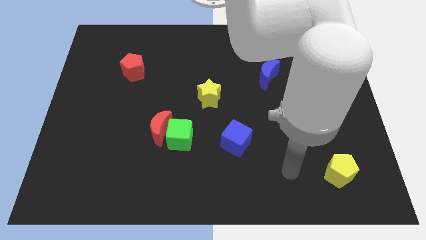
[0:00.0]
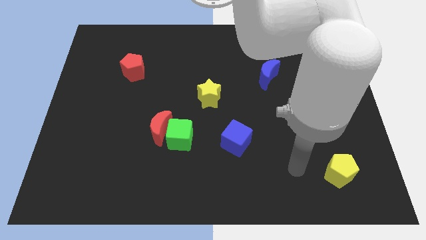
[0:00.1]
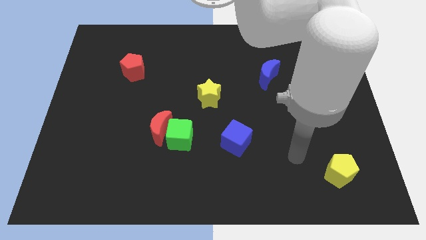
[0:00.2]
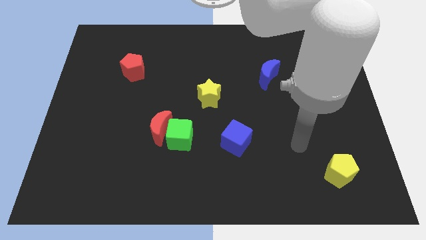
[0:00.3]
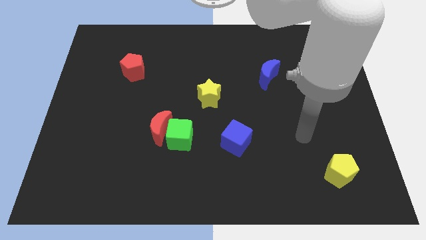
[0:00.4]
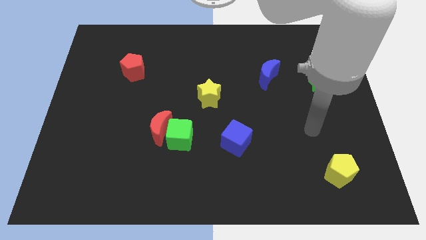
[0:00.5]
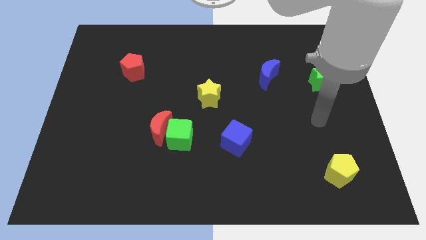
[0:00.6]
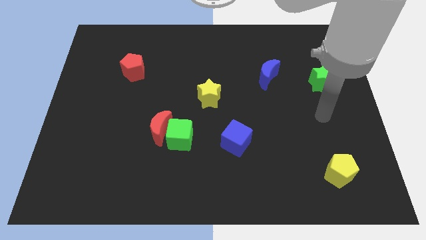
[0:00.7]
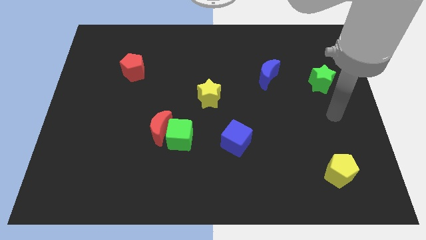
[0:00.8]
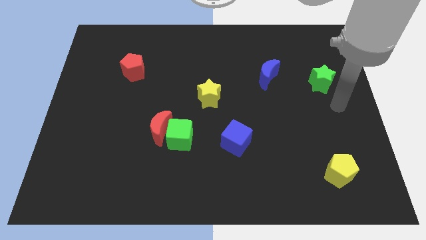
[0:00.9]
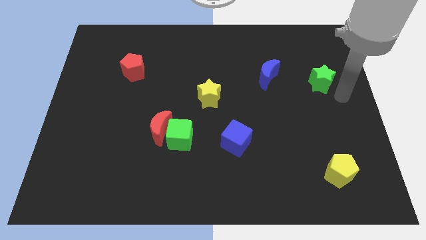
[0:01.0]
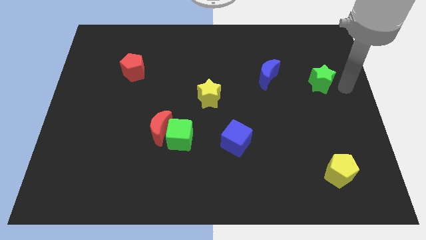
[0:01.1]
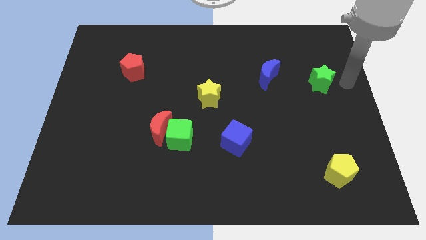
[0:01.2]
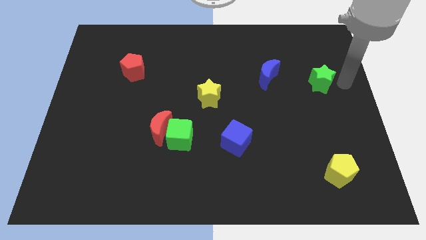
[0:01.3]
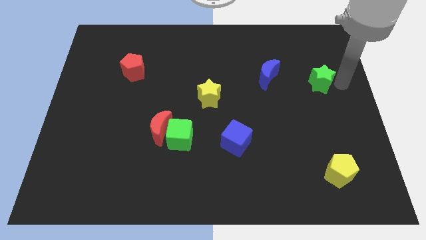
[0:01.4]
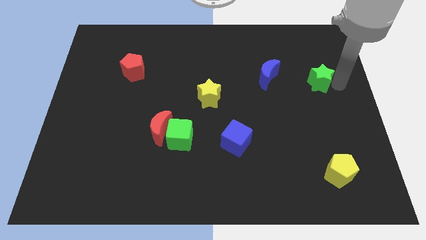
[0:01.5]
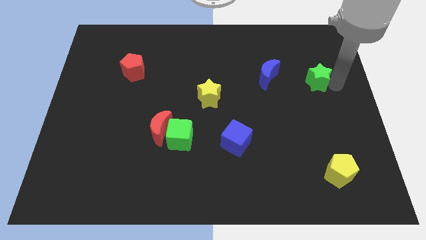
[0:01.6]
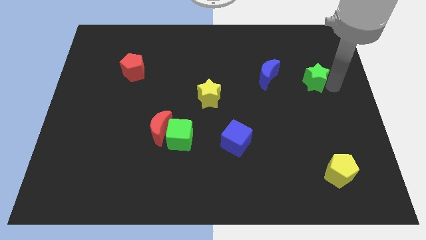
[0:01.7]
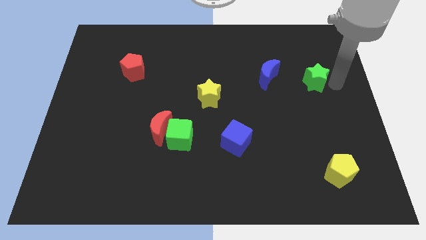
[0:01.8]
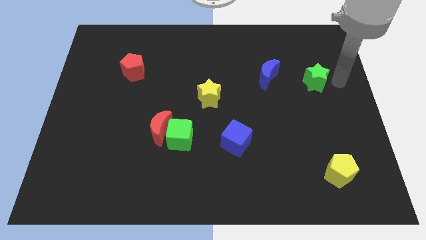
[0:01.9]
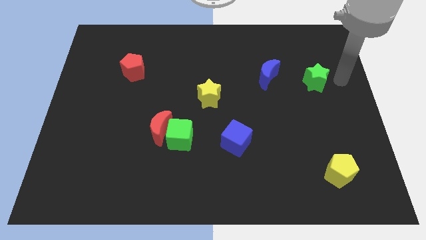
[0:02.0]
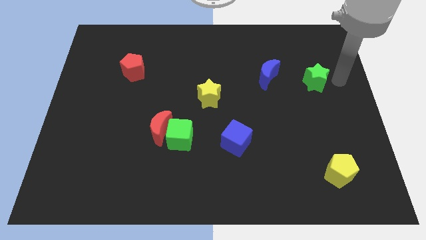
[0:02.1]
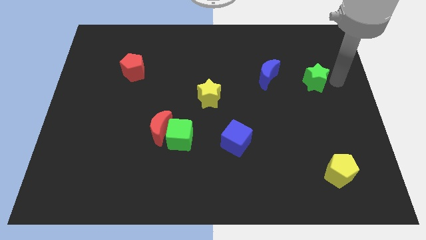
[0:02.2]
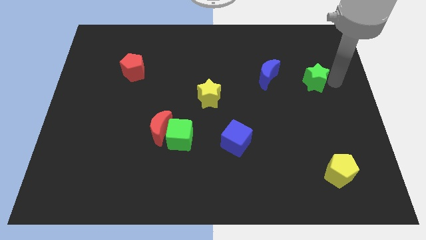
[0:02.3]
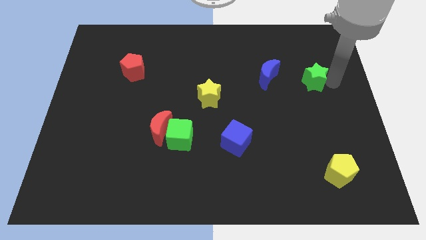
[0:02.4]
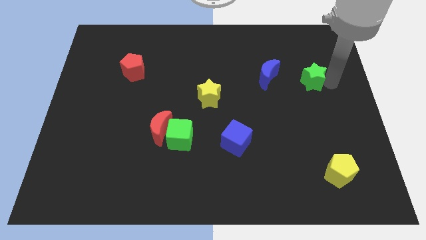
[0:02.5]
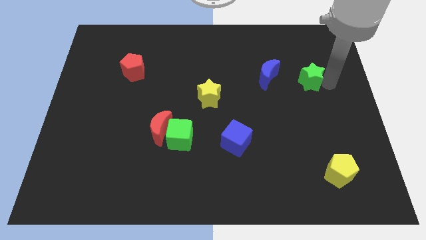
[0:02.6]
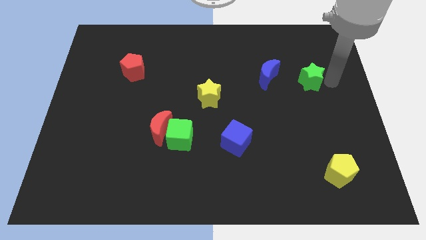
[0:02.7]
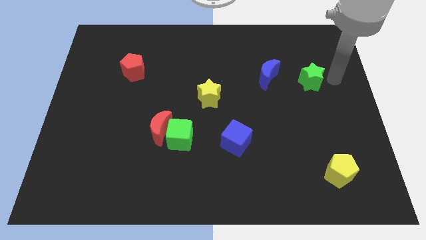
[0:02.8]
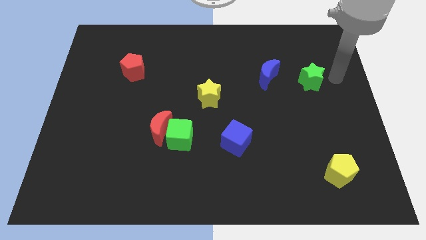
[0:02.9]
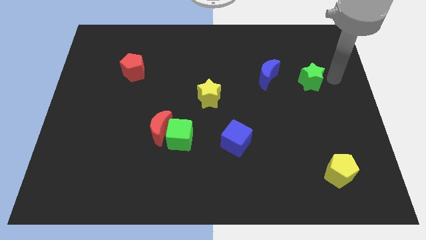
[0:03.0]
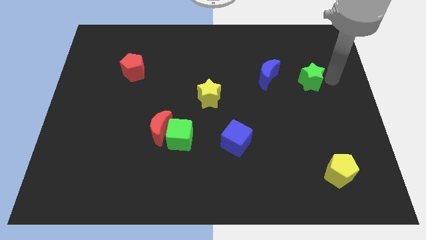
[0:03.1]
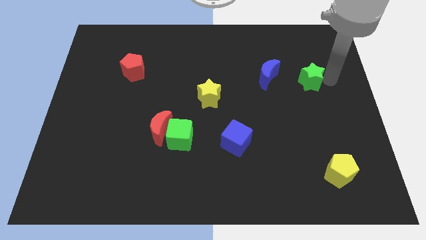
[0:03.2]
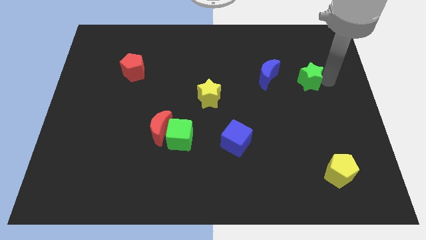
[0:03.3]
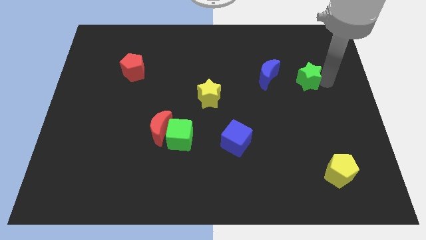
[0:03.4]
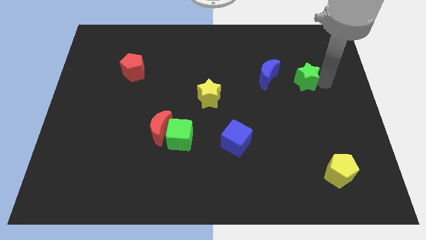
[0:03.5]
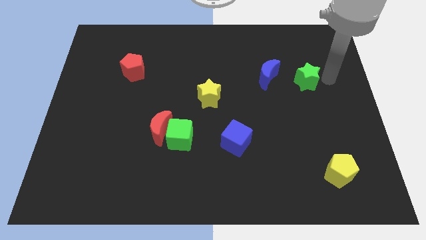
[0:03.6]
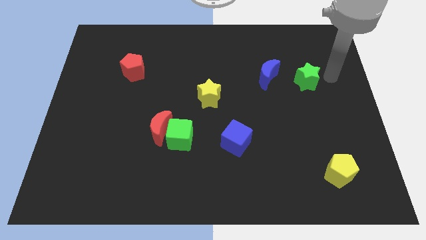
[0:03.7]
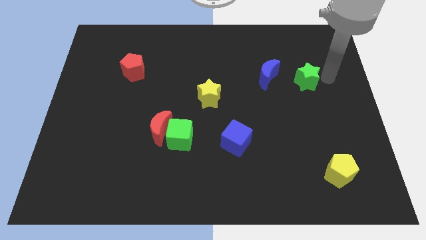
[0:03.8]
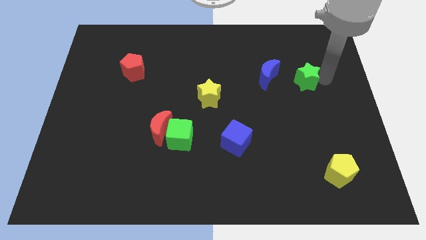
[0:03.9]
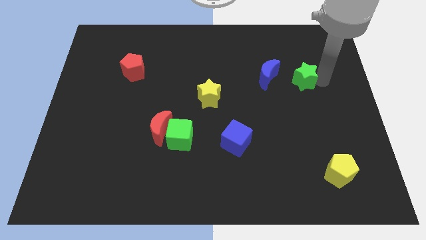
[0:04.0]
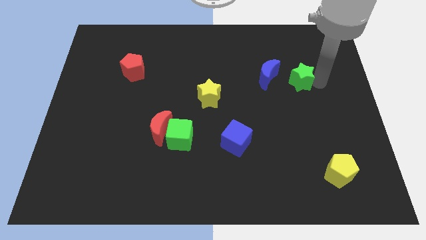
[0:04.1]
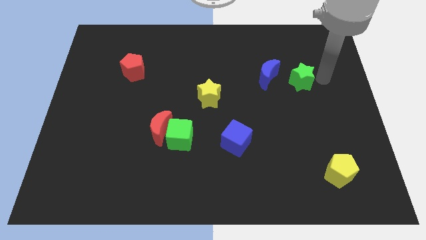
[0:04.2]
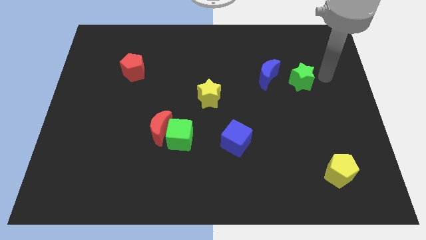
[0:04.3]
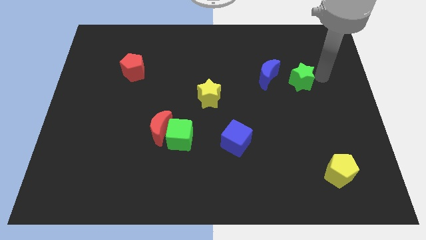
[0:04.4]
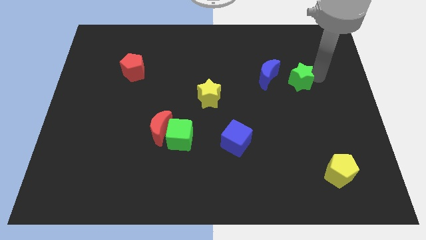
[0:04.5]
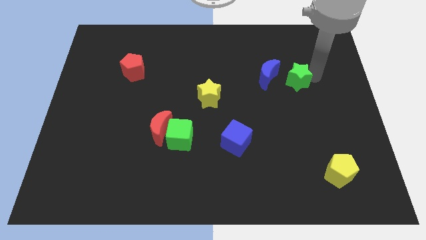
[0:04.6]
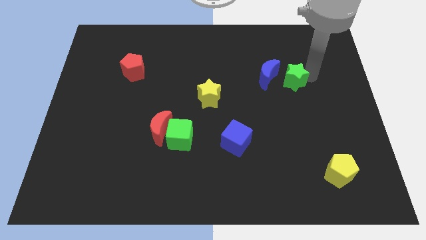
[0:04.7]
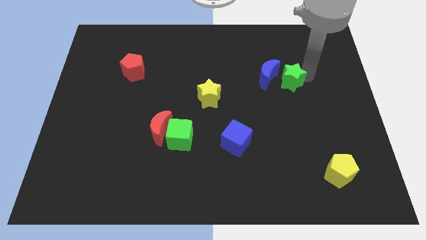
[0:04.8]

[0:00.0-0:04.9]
move the green star a little left

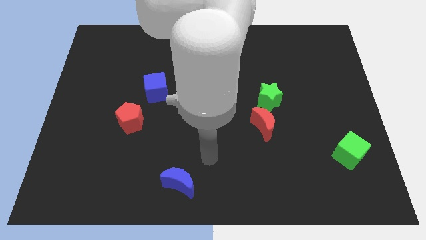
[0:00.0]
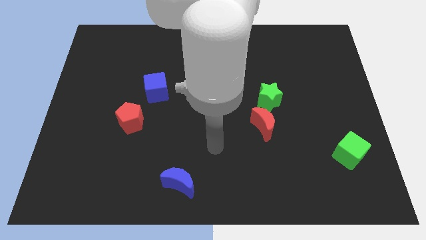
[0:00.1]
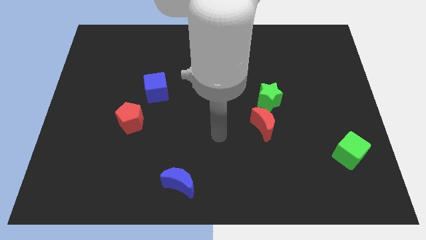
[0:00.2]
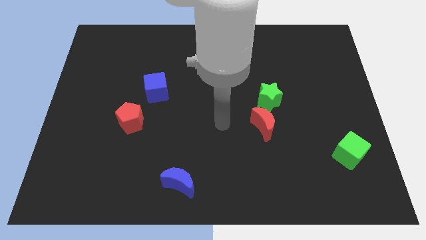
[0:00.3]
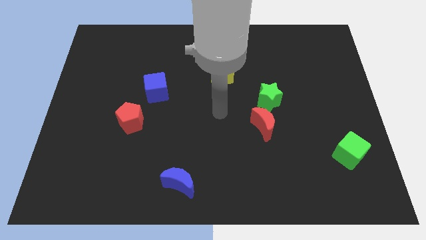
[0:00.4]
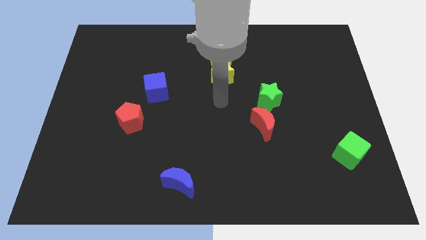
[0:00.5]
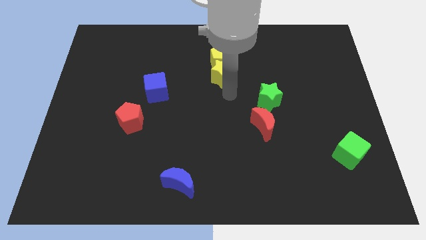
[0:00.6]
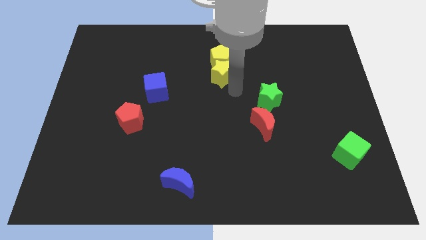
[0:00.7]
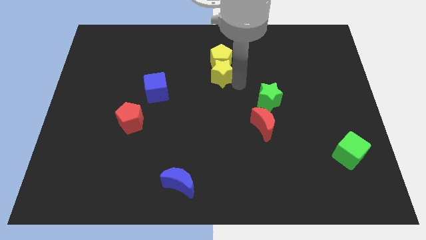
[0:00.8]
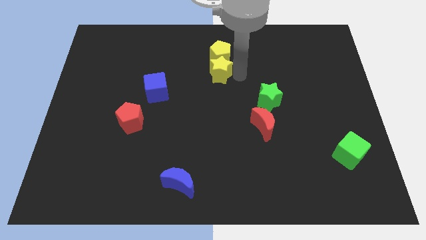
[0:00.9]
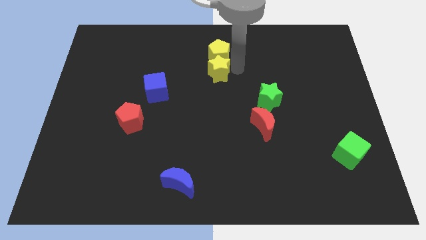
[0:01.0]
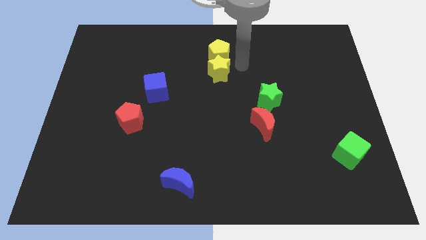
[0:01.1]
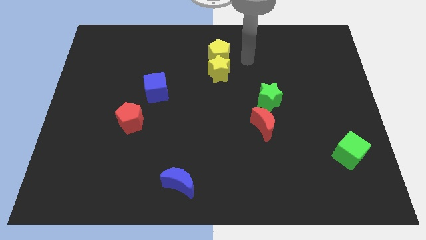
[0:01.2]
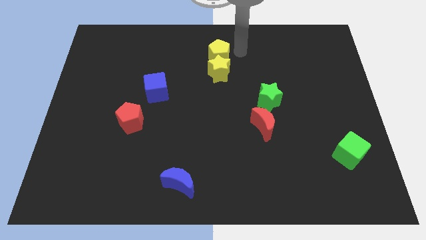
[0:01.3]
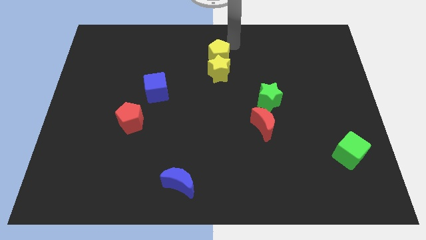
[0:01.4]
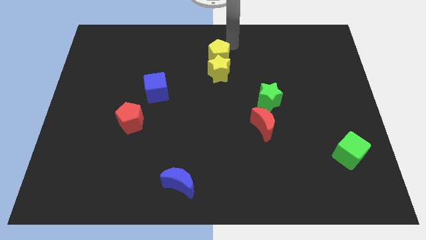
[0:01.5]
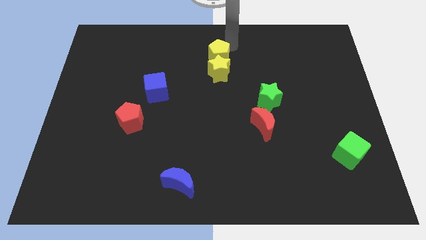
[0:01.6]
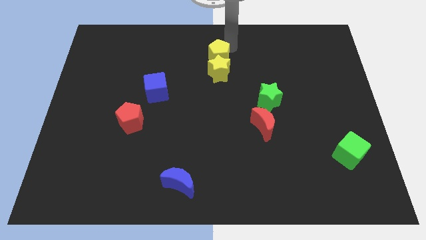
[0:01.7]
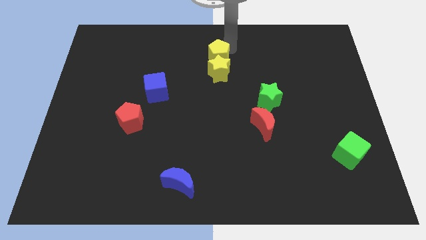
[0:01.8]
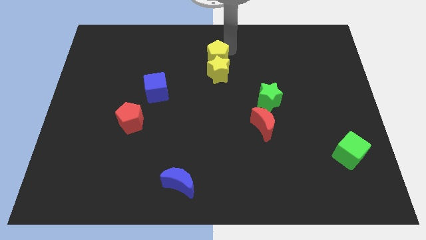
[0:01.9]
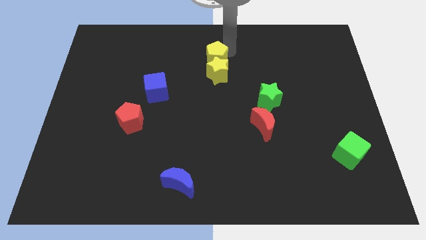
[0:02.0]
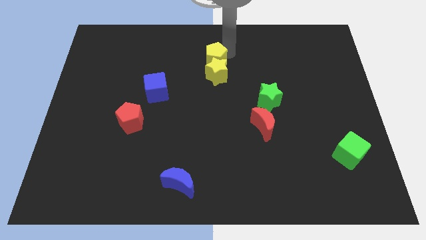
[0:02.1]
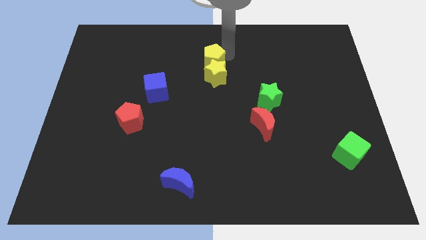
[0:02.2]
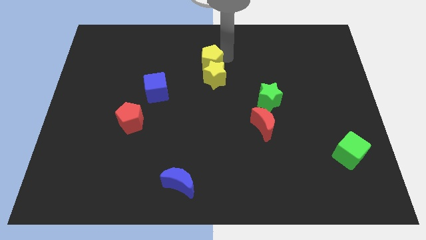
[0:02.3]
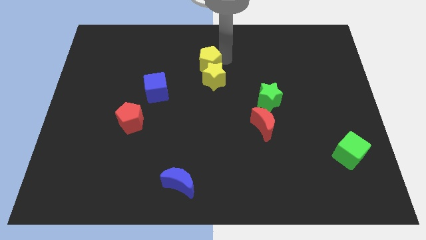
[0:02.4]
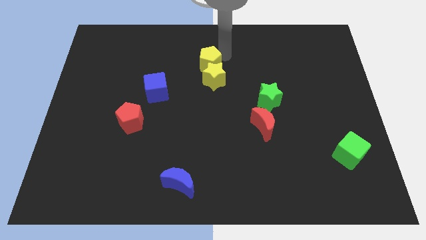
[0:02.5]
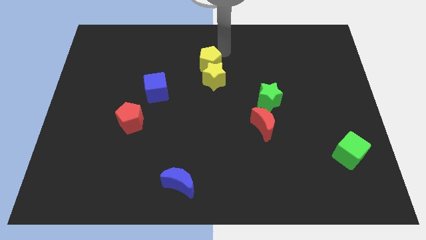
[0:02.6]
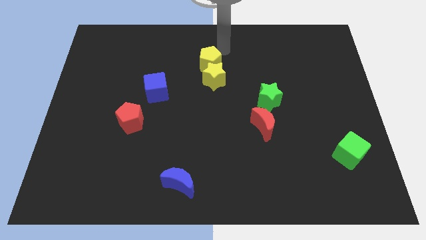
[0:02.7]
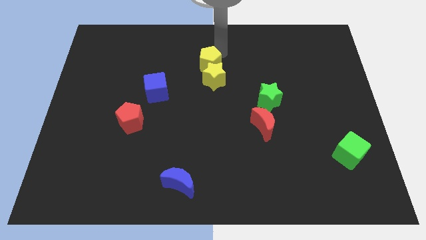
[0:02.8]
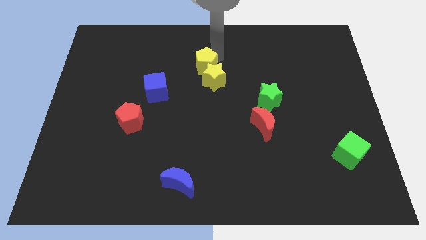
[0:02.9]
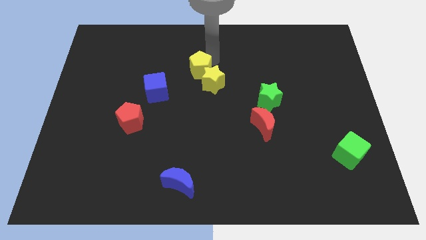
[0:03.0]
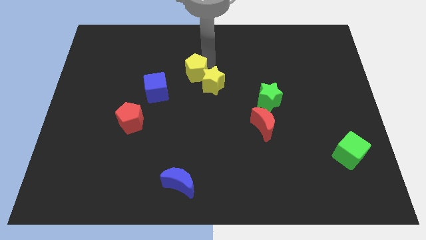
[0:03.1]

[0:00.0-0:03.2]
move the yellow pentagon diagonally downwards and to the left slightly
